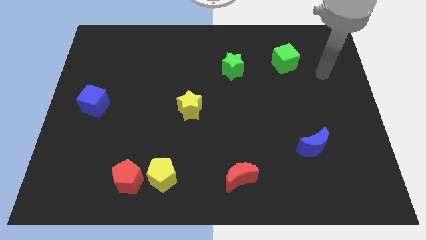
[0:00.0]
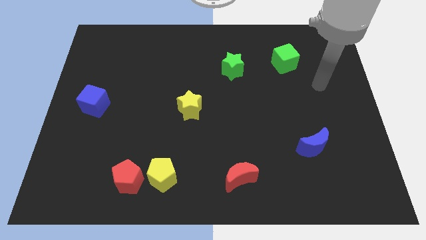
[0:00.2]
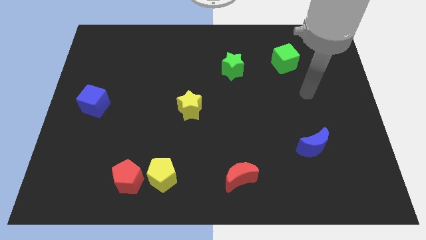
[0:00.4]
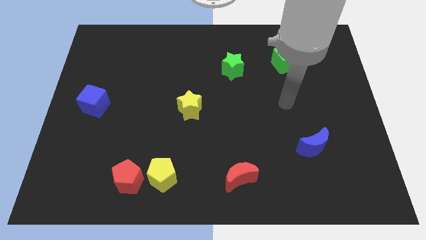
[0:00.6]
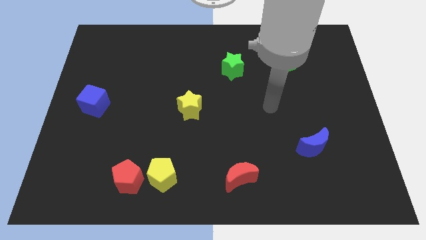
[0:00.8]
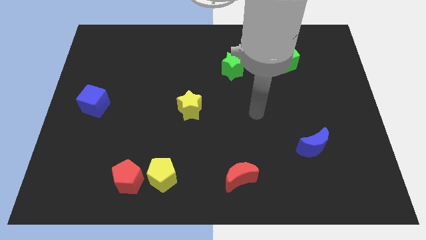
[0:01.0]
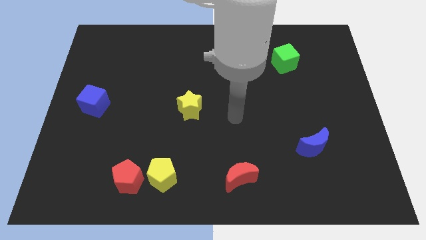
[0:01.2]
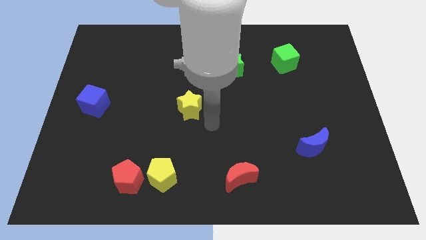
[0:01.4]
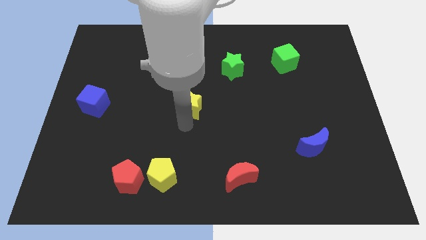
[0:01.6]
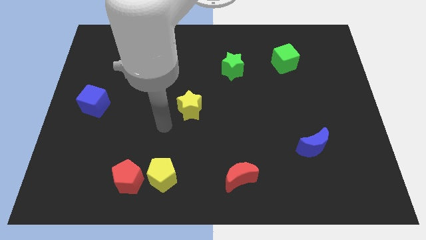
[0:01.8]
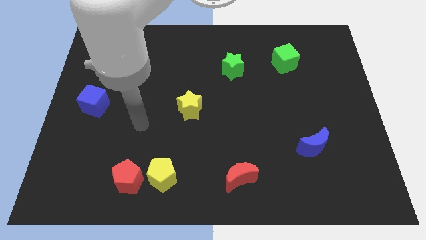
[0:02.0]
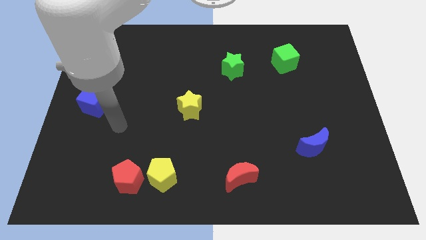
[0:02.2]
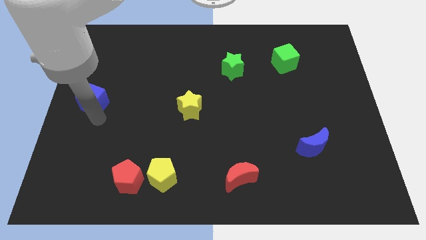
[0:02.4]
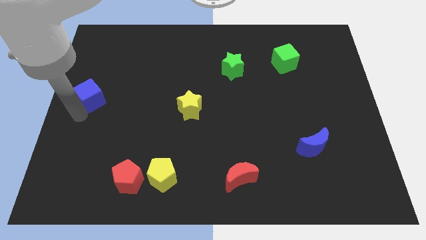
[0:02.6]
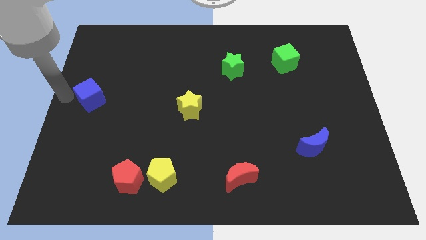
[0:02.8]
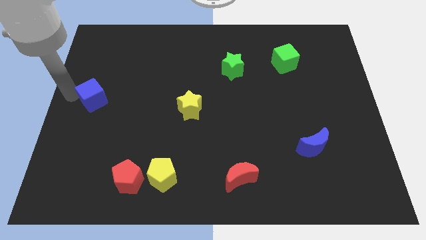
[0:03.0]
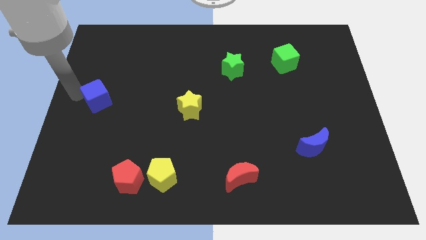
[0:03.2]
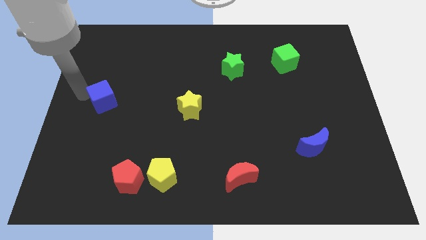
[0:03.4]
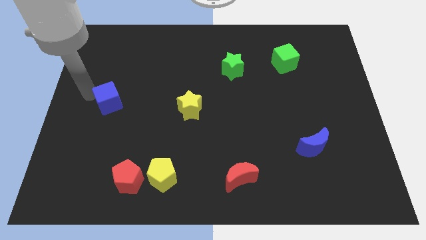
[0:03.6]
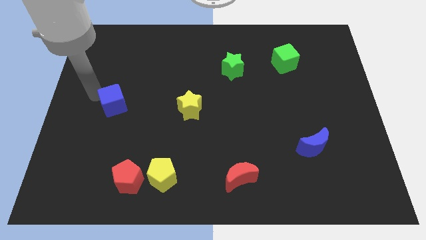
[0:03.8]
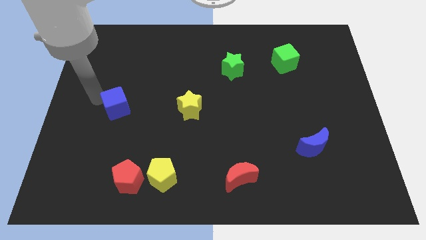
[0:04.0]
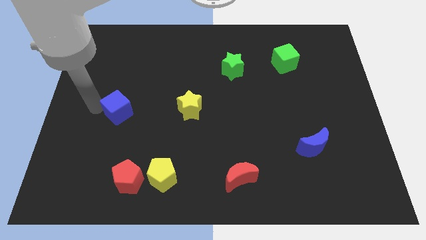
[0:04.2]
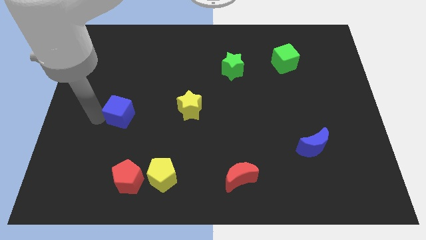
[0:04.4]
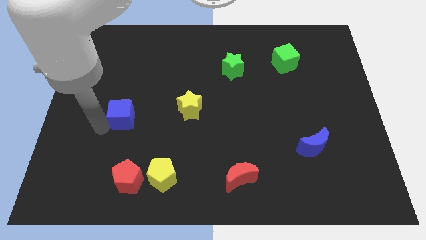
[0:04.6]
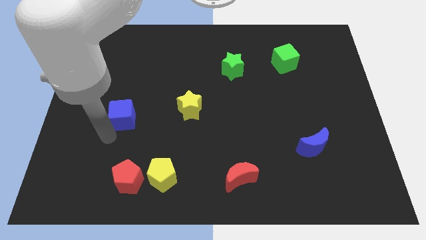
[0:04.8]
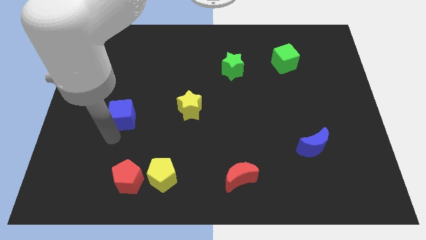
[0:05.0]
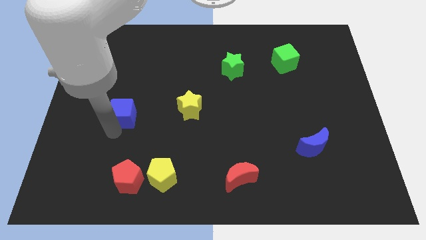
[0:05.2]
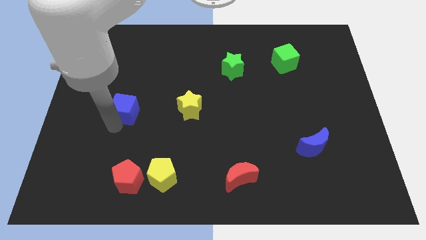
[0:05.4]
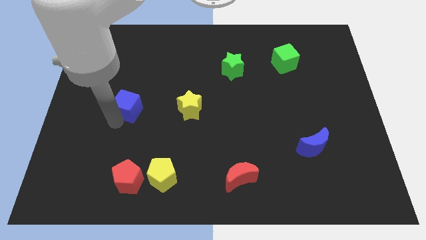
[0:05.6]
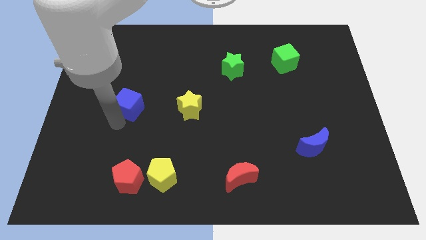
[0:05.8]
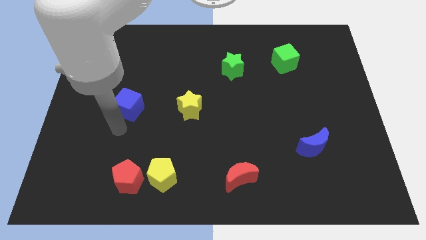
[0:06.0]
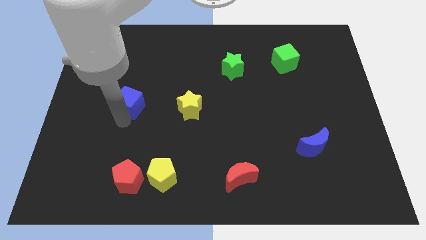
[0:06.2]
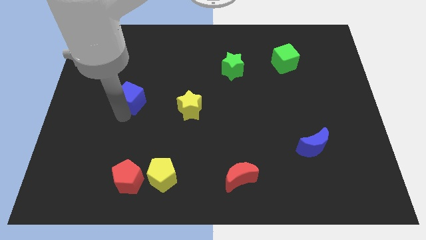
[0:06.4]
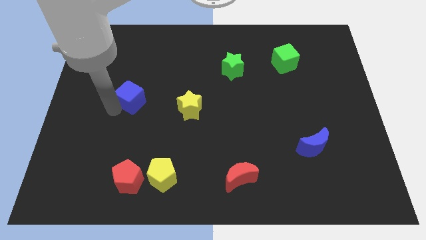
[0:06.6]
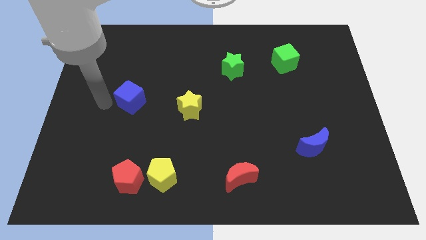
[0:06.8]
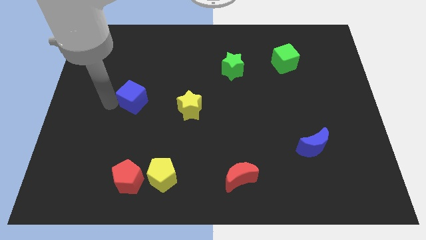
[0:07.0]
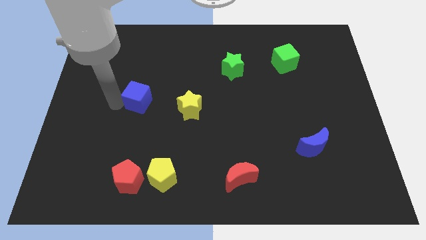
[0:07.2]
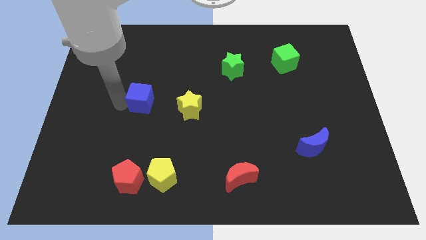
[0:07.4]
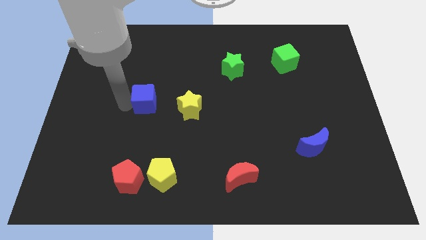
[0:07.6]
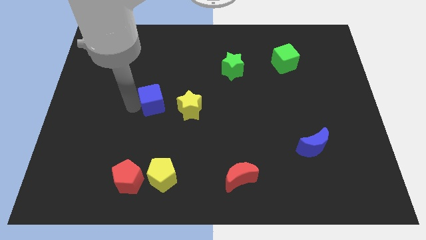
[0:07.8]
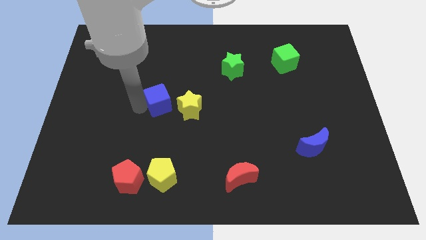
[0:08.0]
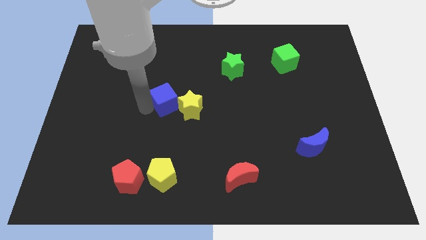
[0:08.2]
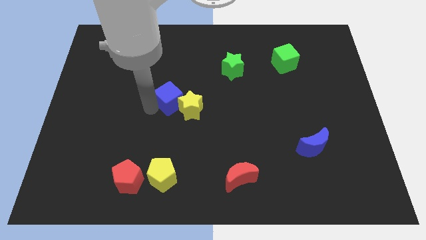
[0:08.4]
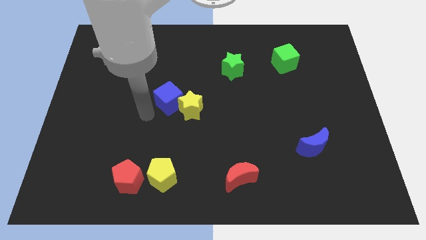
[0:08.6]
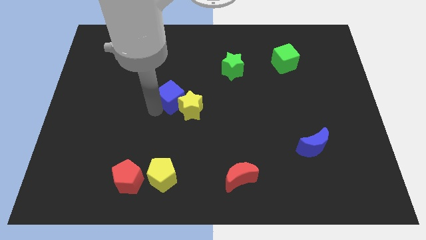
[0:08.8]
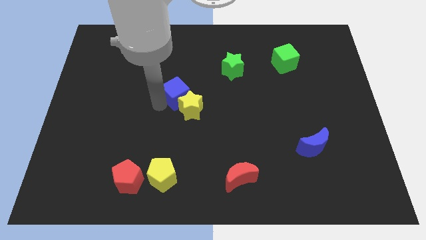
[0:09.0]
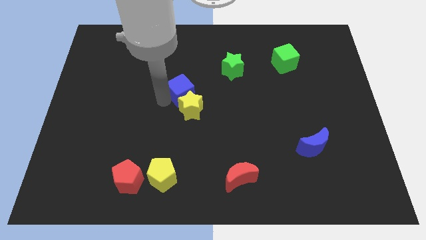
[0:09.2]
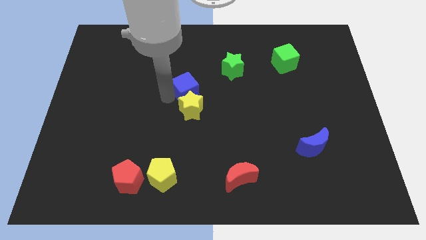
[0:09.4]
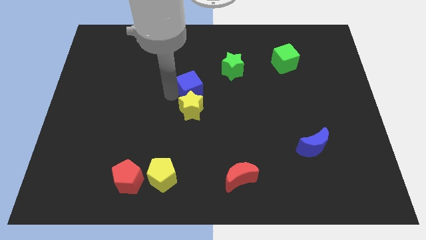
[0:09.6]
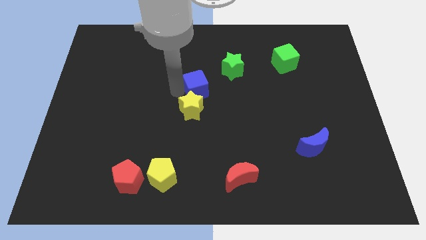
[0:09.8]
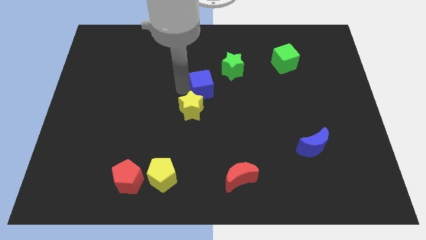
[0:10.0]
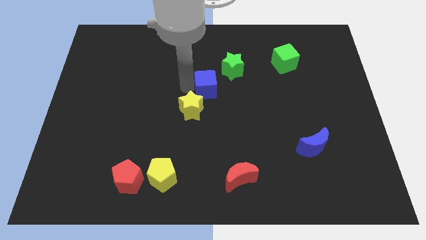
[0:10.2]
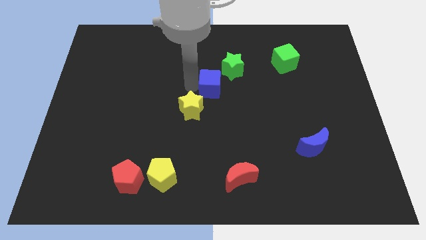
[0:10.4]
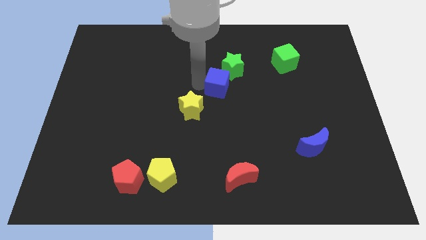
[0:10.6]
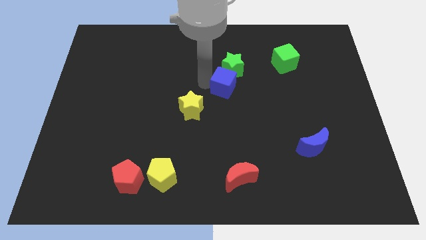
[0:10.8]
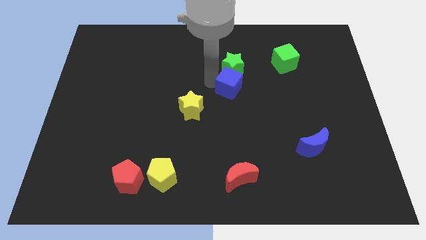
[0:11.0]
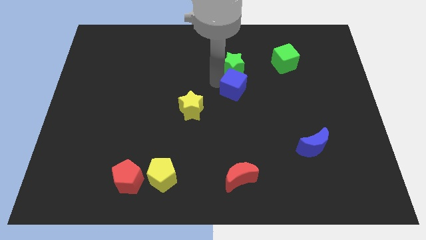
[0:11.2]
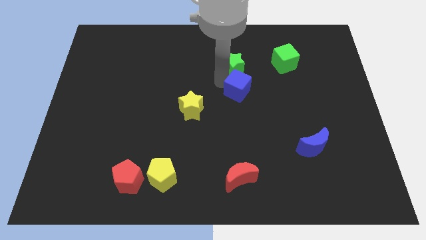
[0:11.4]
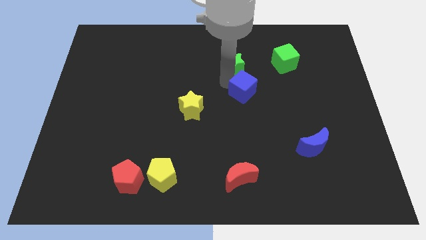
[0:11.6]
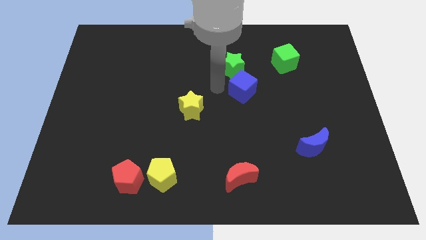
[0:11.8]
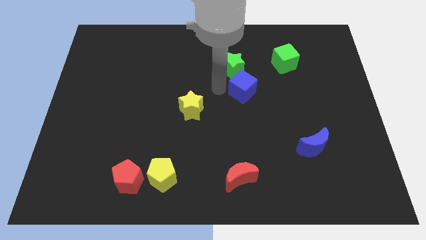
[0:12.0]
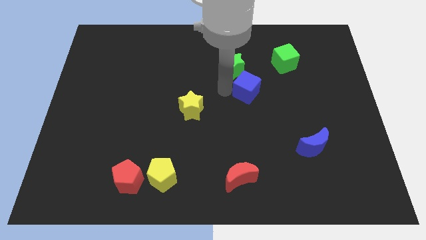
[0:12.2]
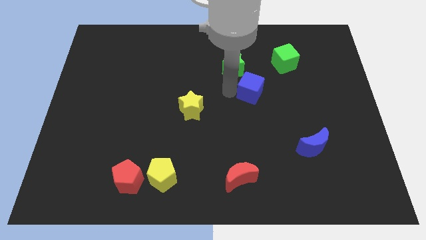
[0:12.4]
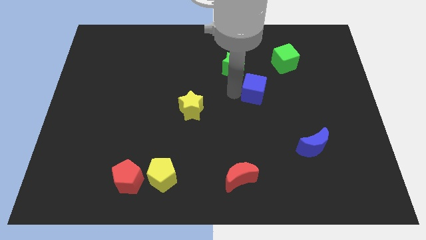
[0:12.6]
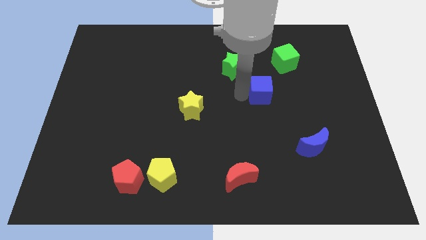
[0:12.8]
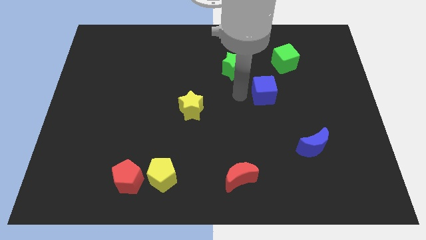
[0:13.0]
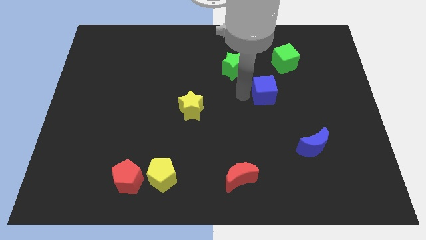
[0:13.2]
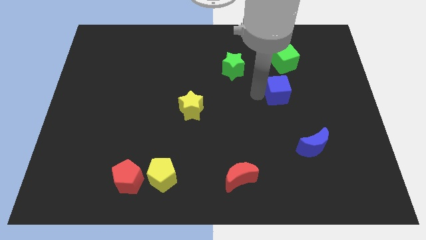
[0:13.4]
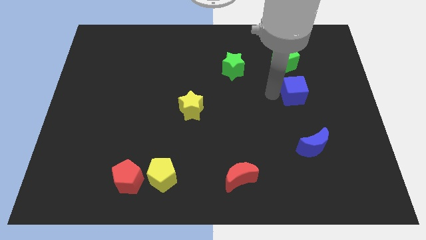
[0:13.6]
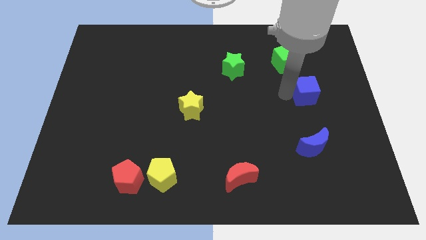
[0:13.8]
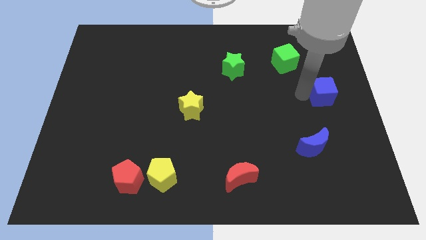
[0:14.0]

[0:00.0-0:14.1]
push the blue cube to the right side of the board
